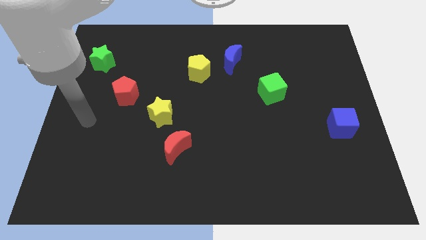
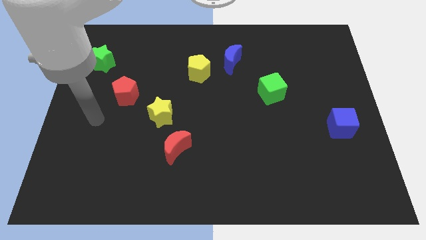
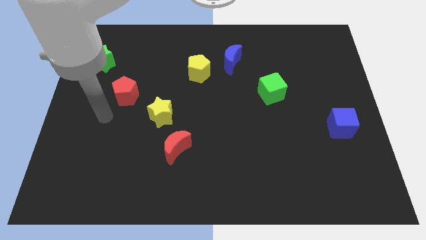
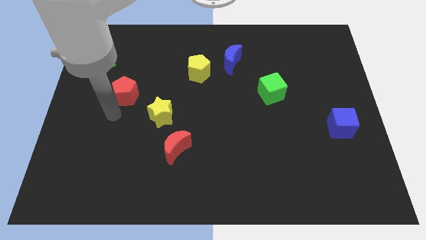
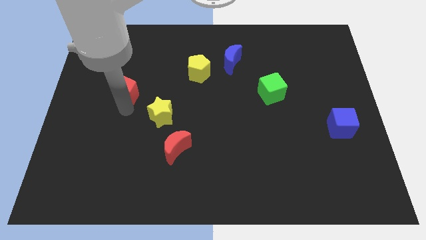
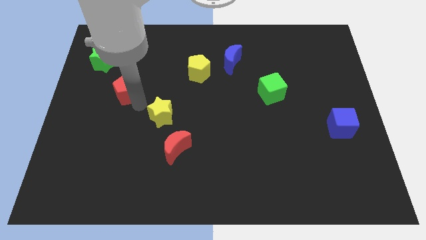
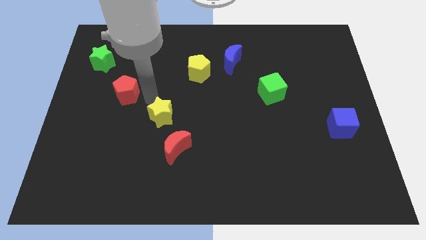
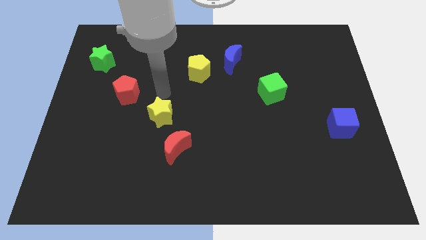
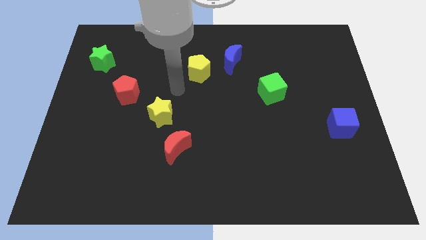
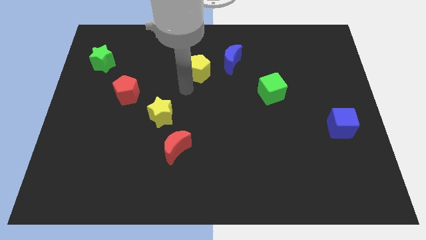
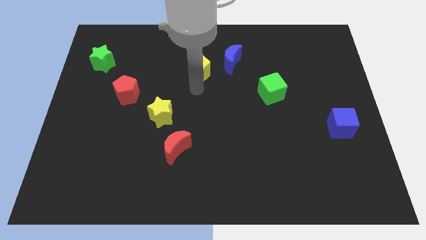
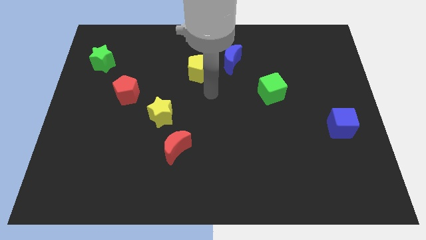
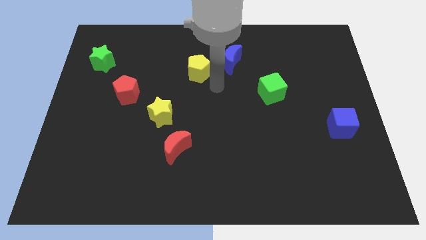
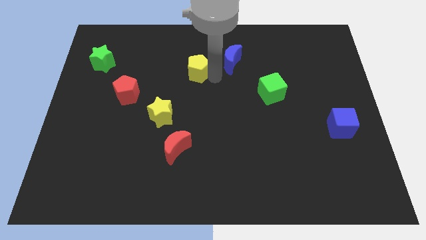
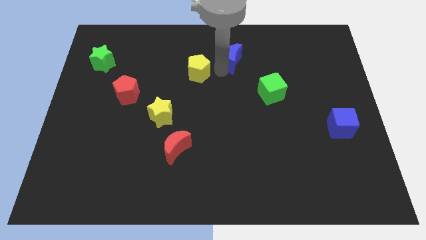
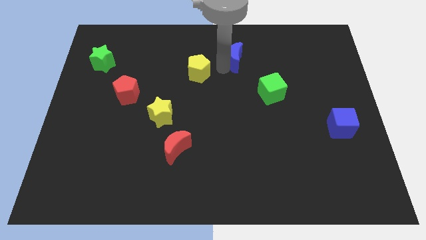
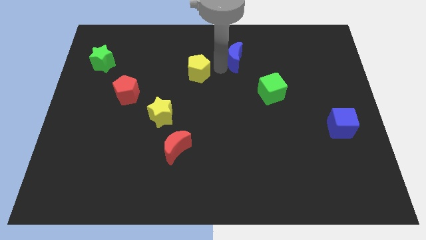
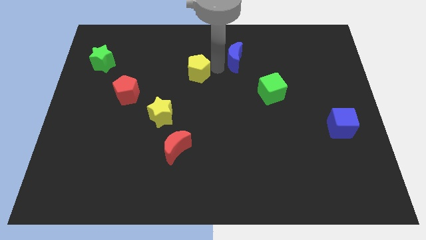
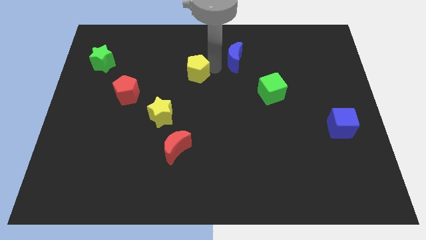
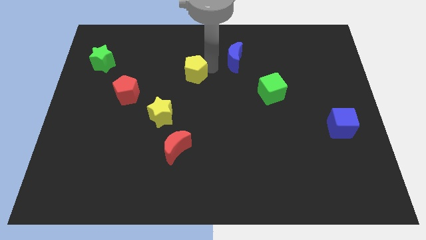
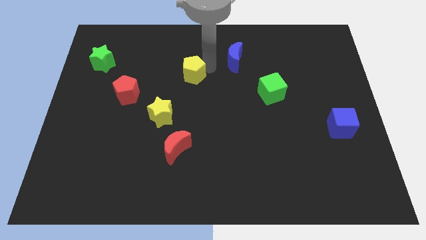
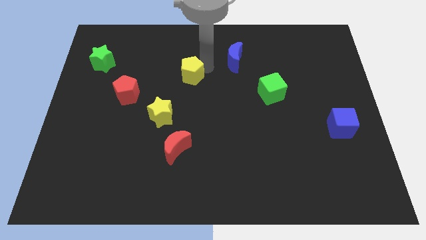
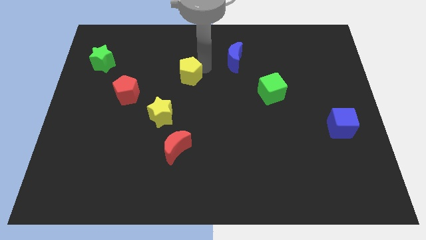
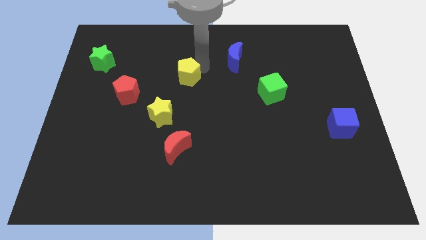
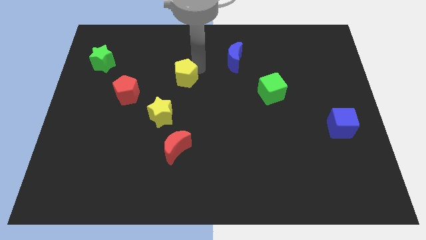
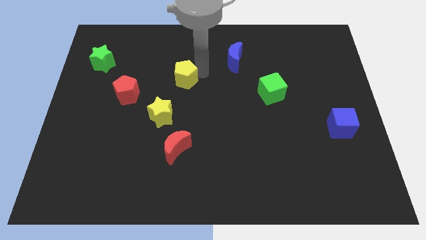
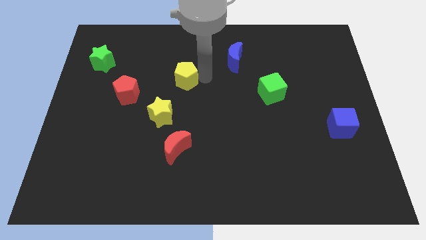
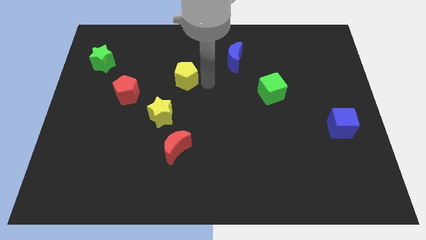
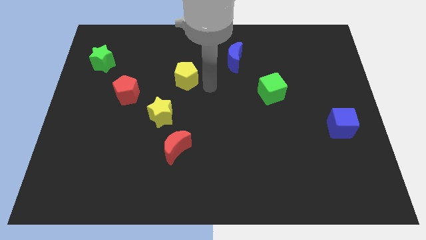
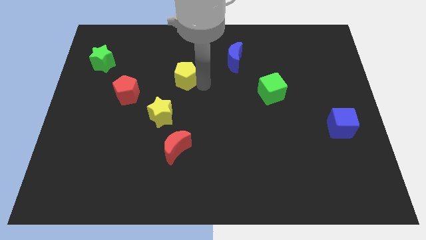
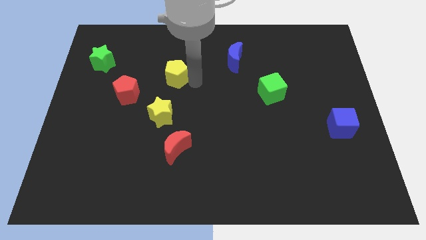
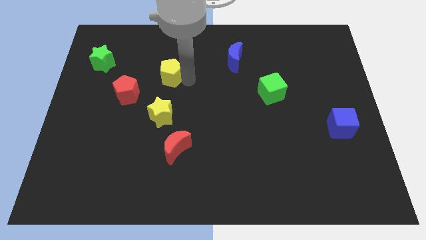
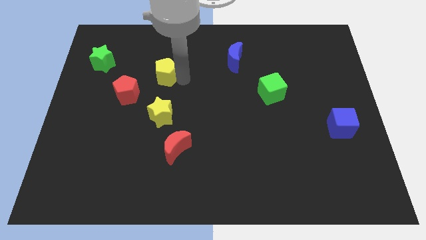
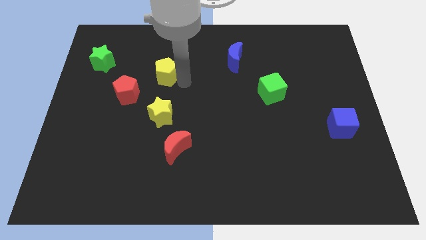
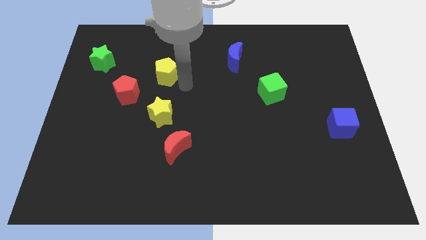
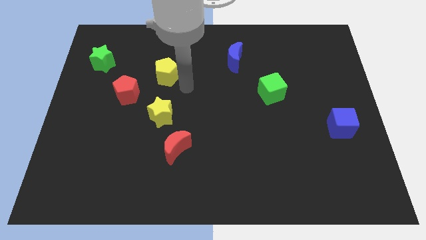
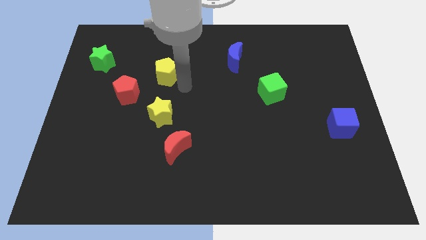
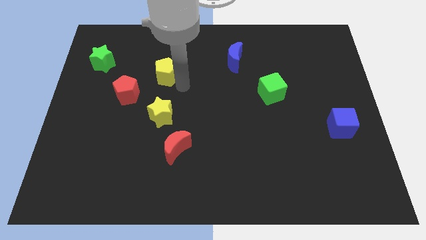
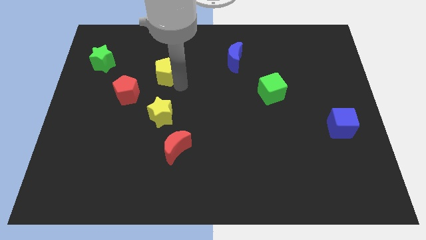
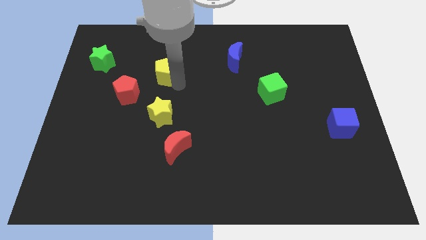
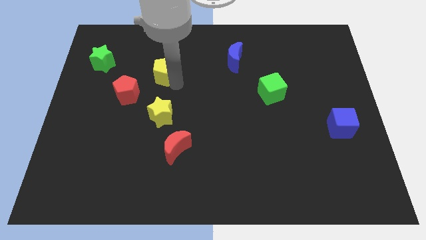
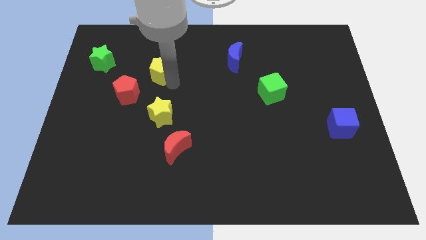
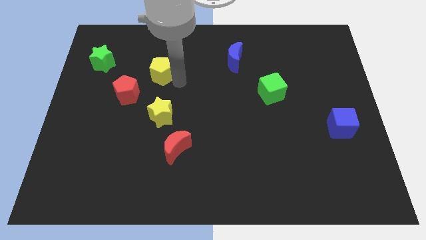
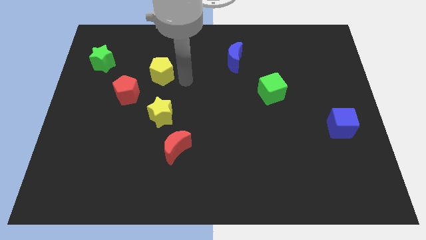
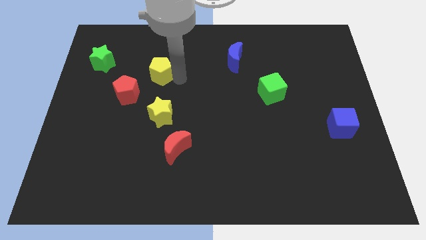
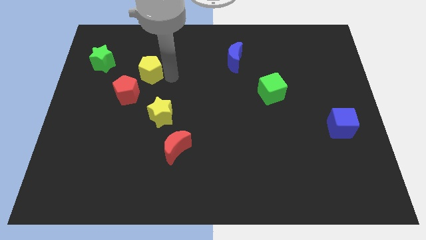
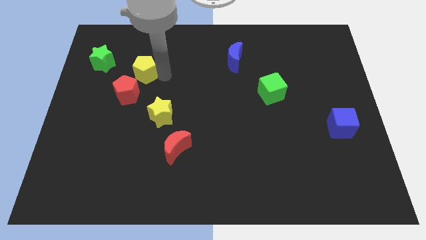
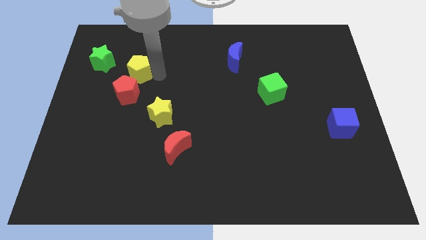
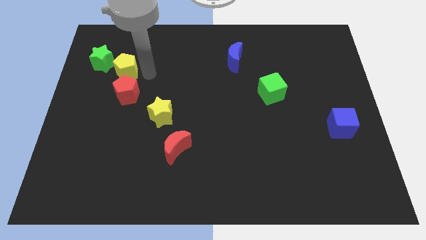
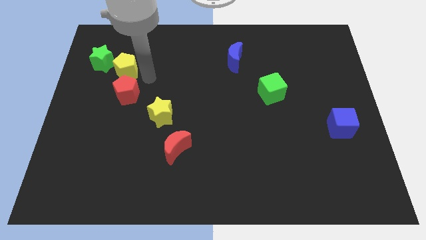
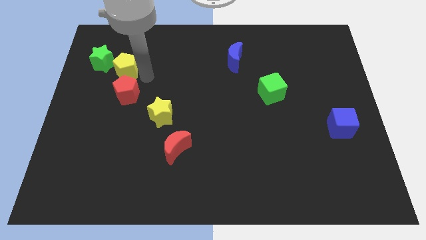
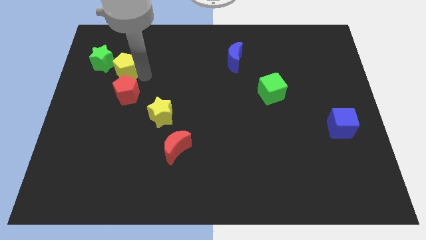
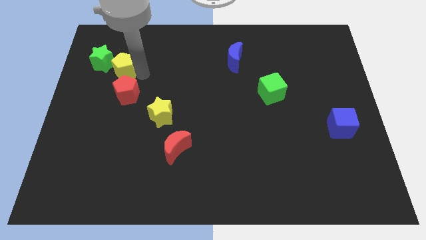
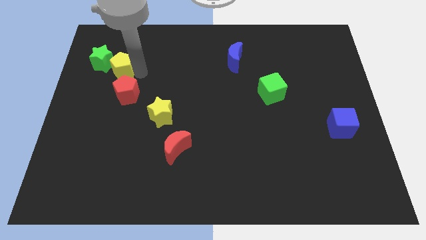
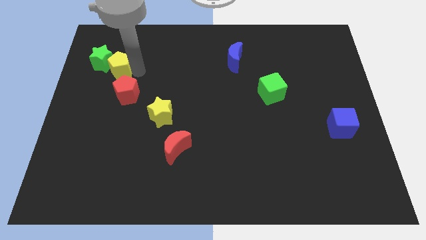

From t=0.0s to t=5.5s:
slide the yellow pentagon close to the green star

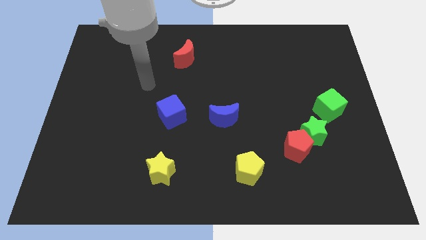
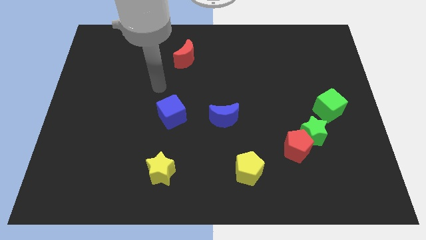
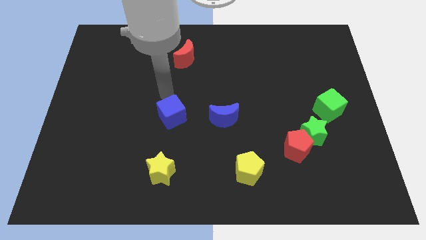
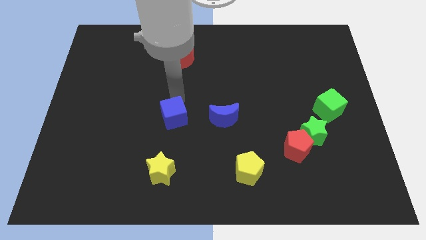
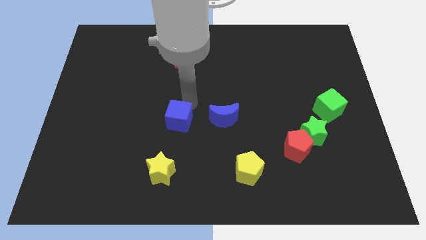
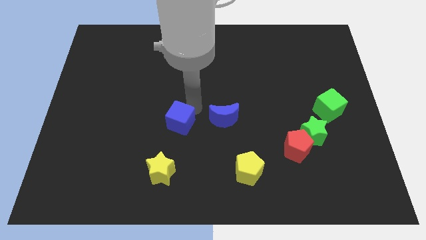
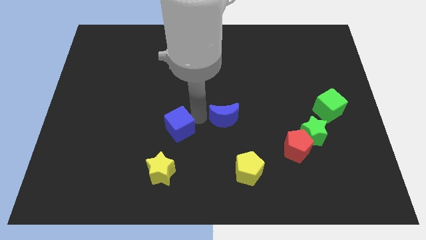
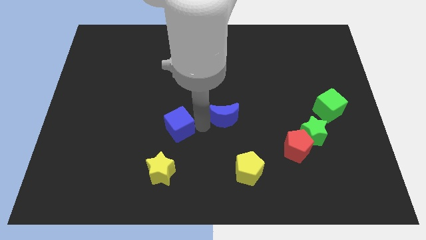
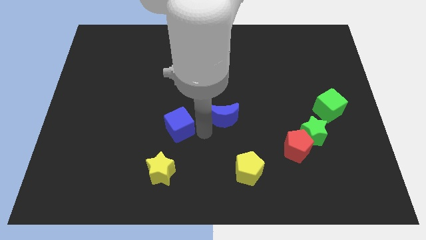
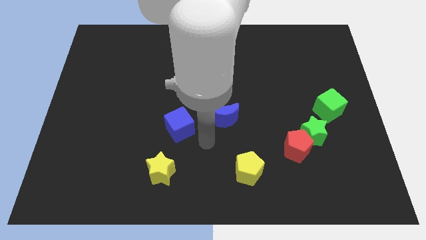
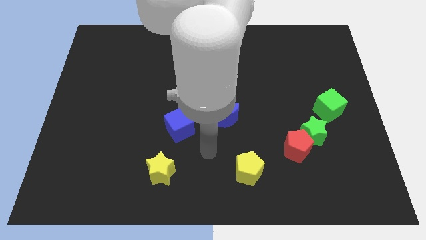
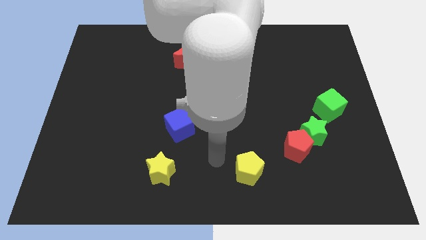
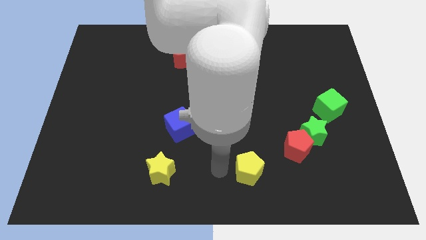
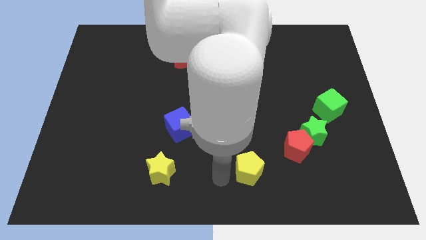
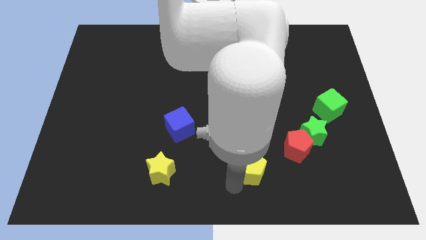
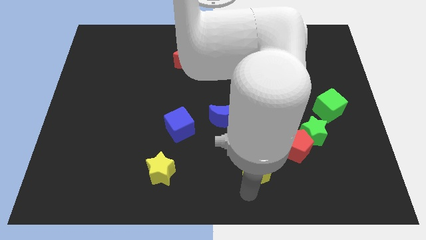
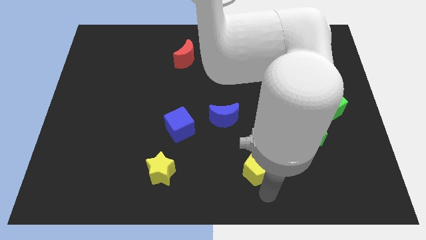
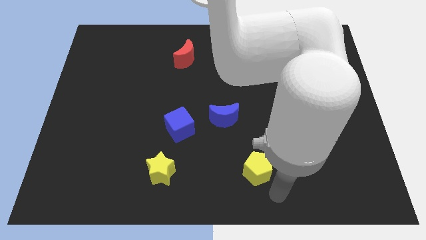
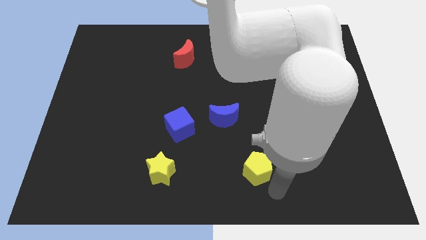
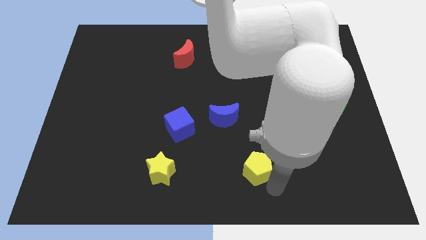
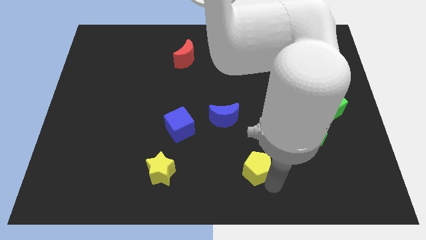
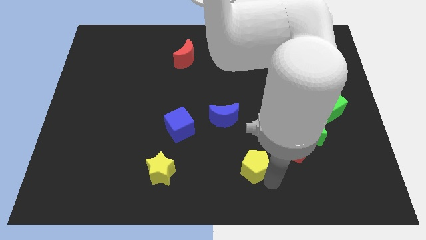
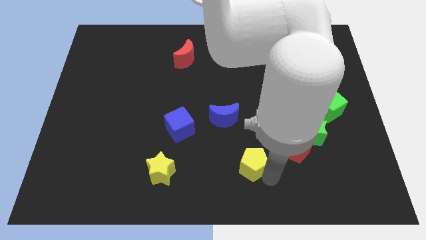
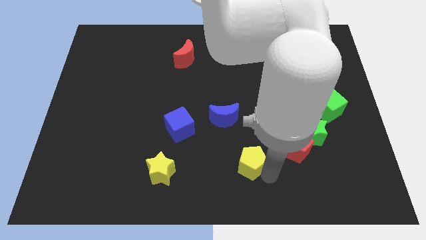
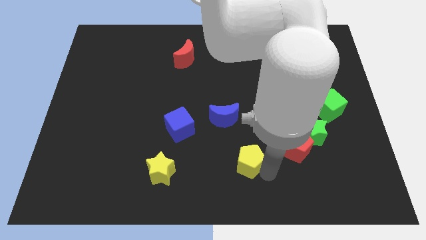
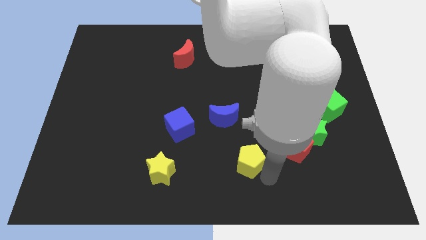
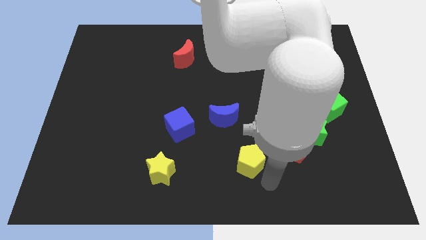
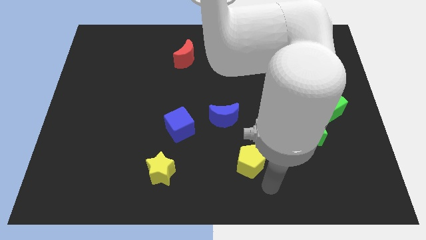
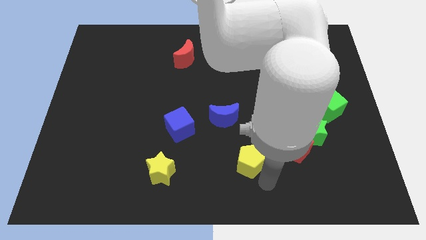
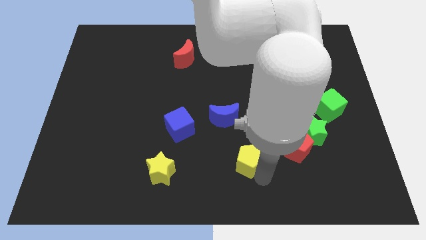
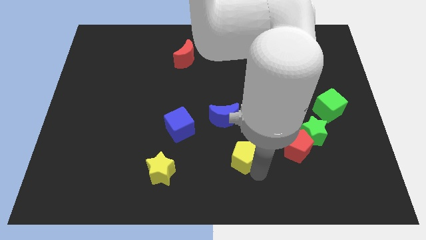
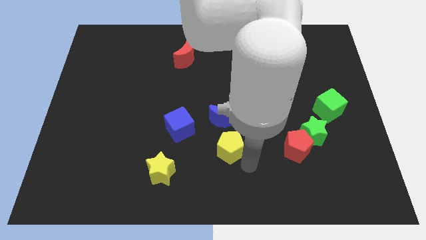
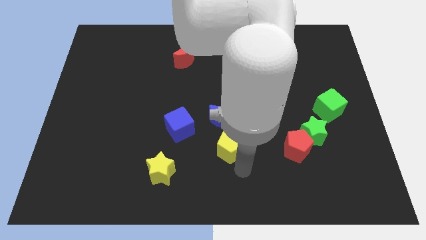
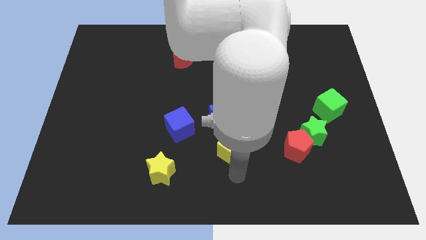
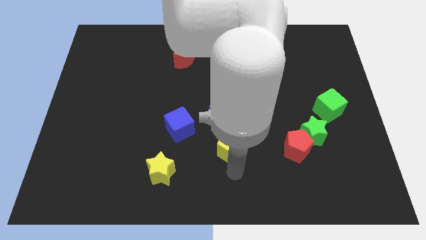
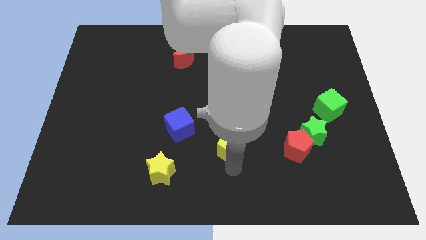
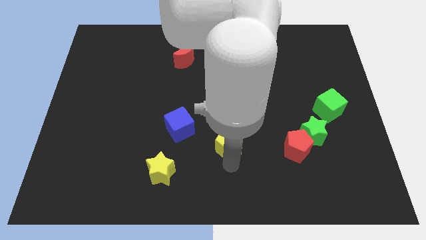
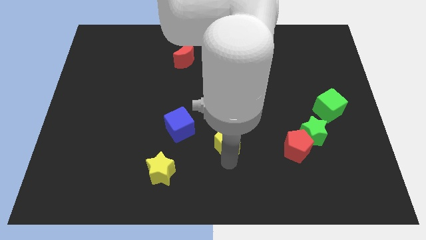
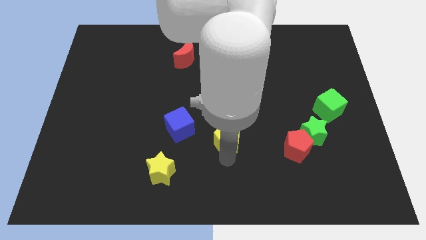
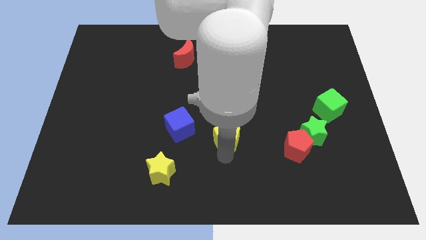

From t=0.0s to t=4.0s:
slide the yellow pentagon to the blue moon
